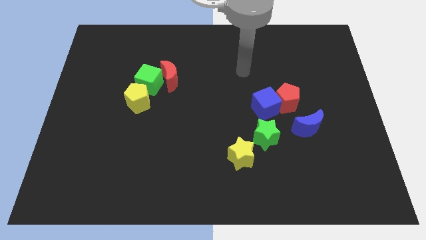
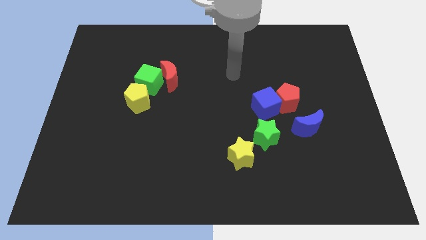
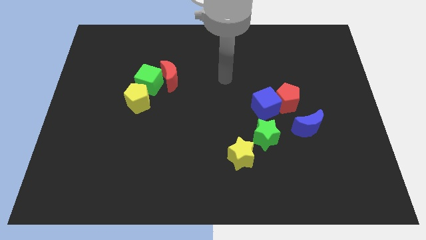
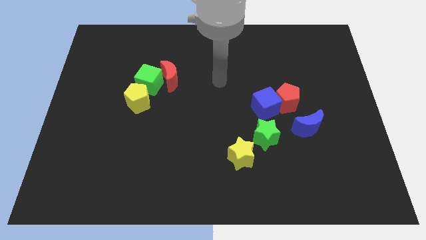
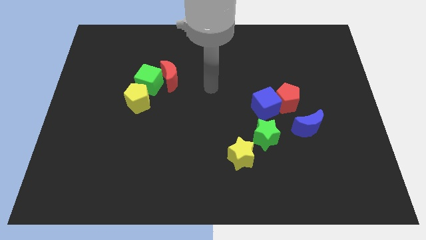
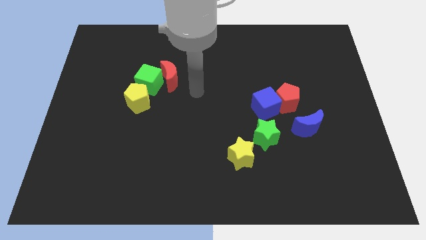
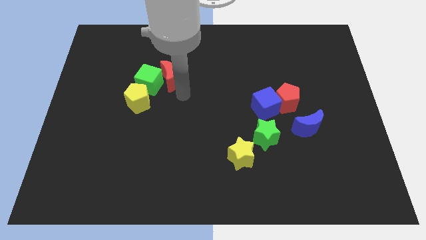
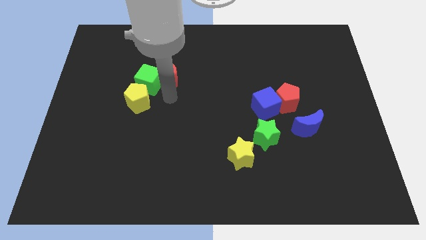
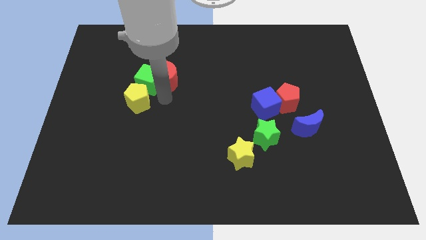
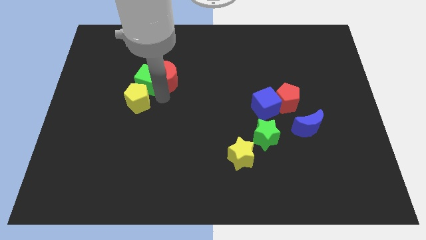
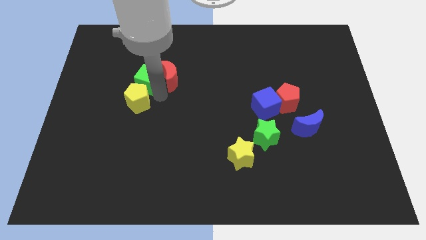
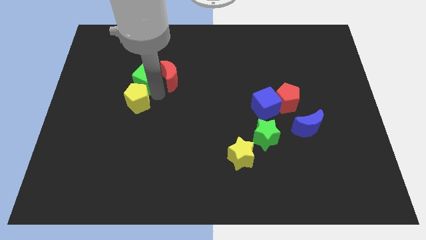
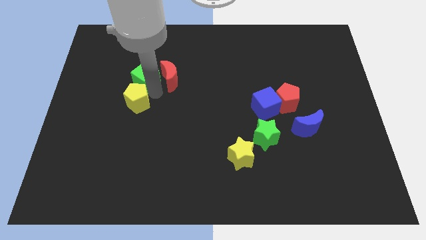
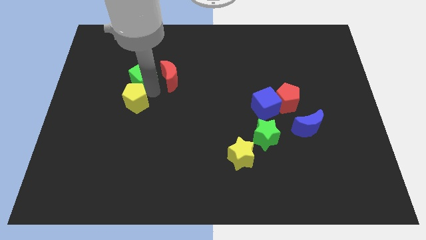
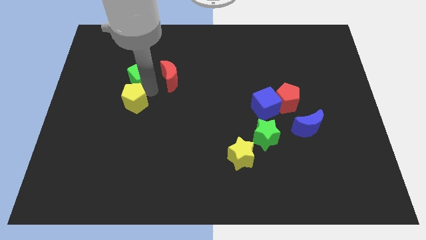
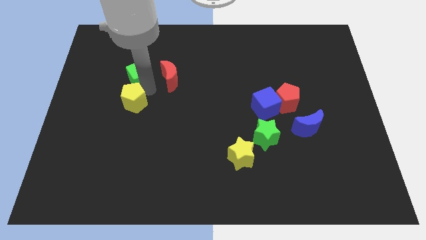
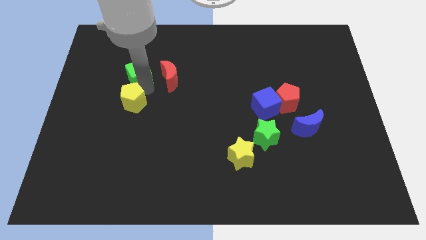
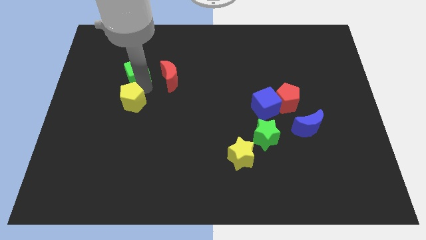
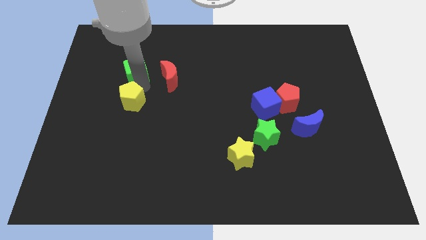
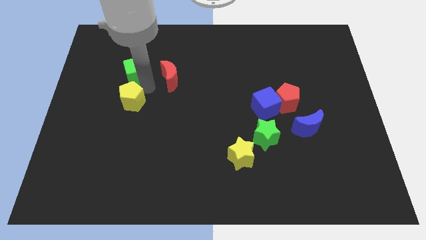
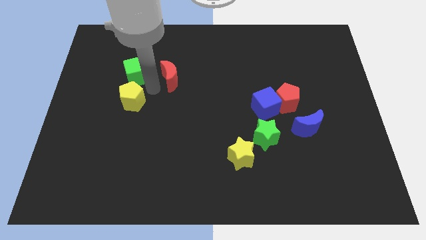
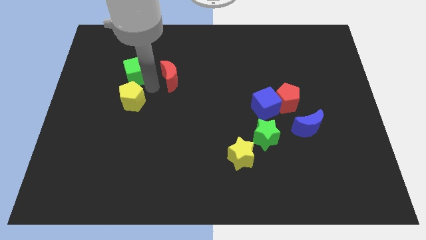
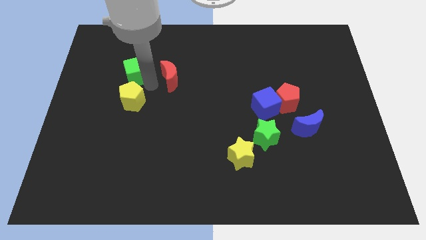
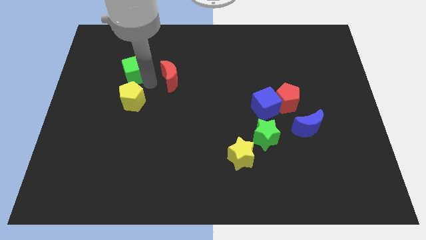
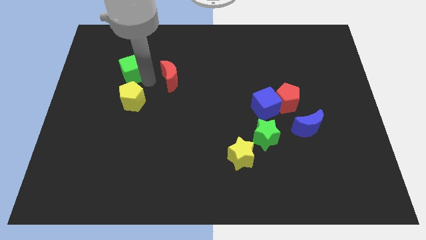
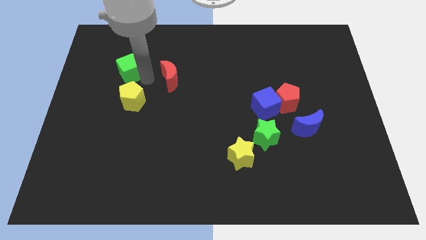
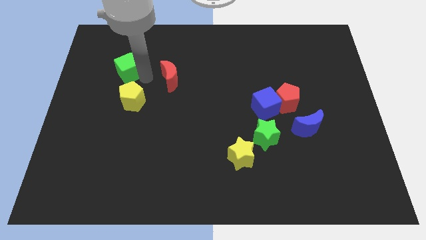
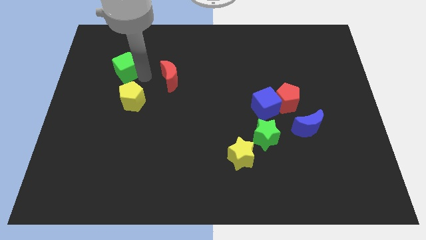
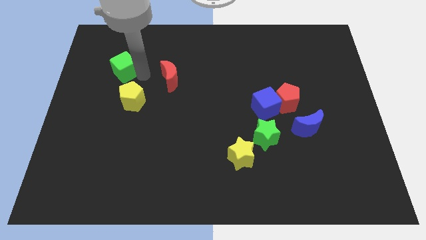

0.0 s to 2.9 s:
separate the green cube from the red moon and yellow pentagon

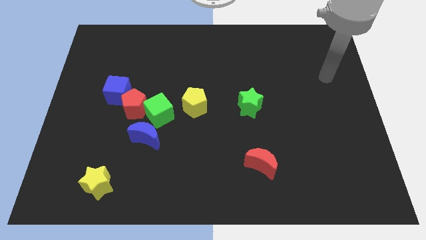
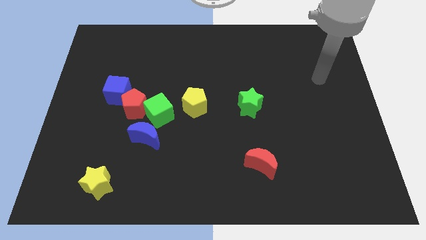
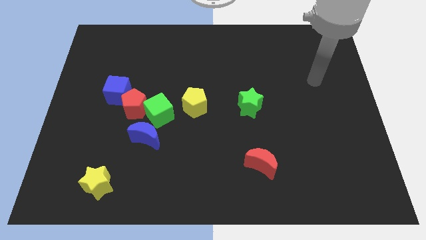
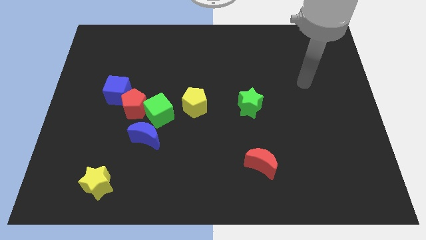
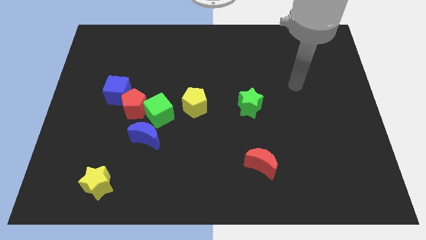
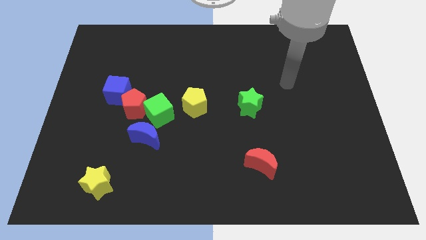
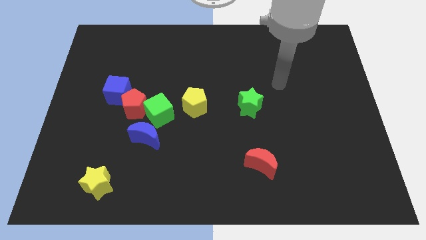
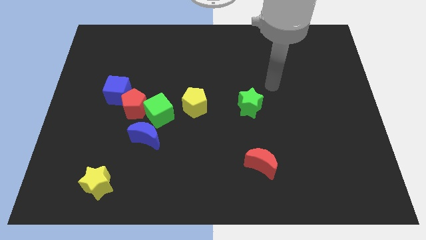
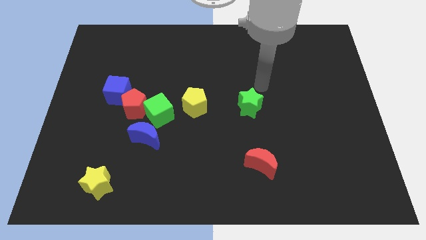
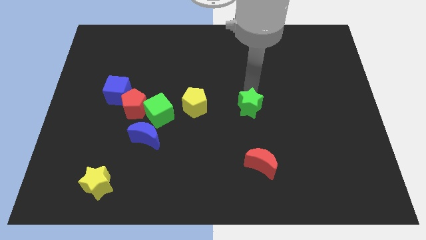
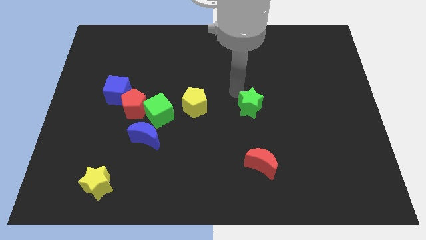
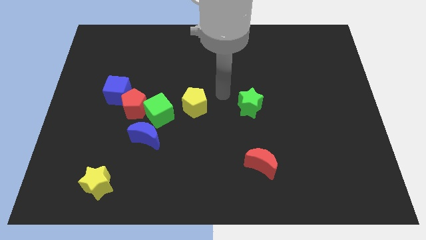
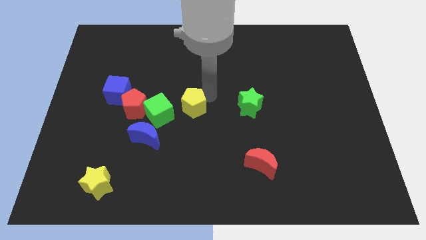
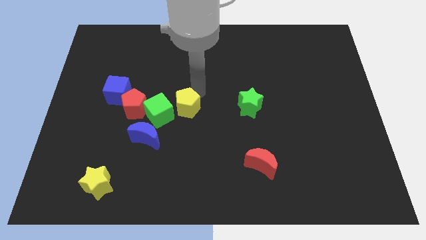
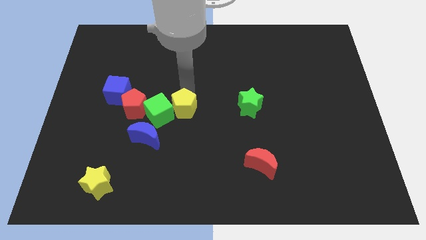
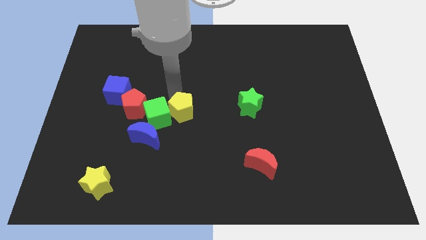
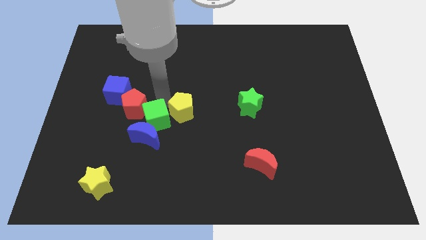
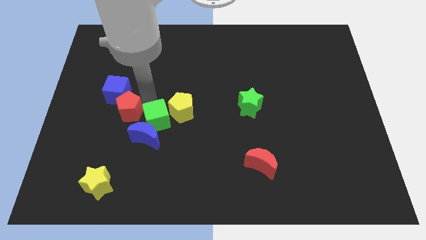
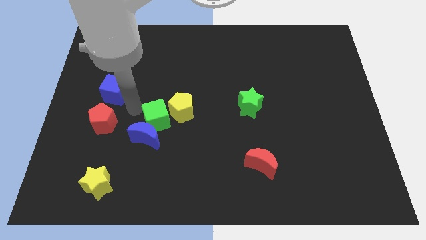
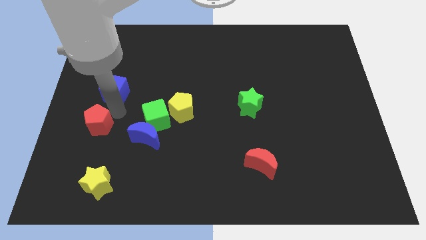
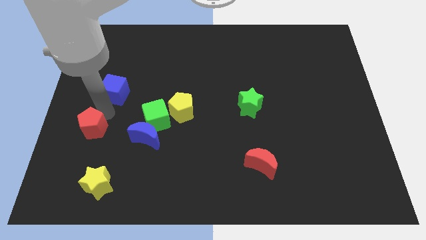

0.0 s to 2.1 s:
pull the blue cube apart from the red pentagon

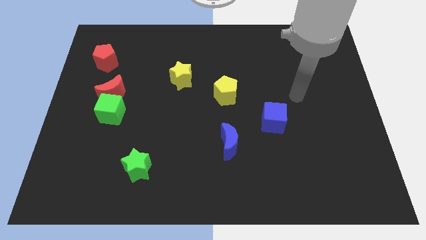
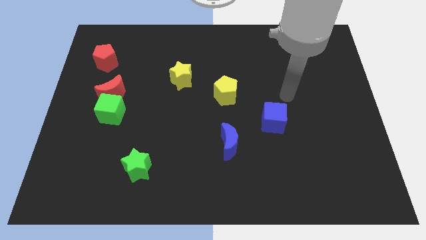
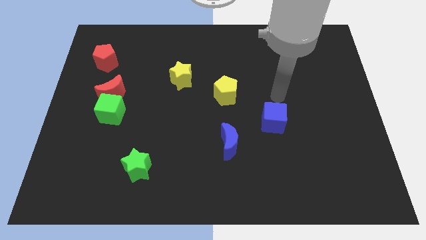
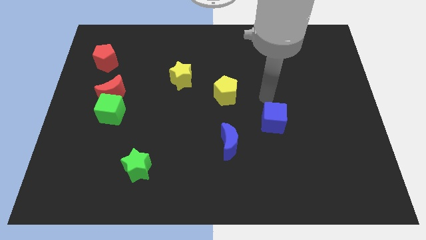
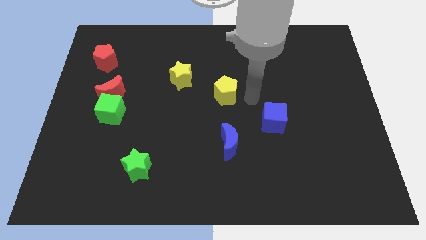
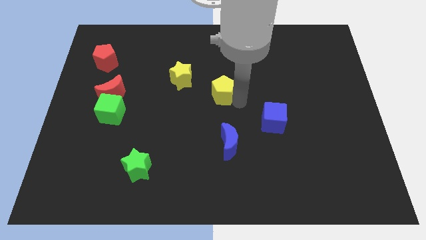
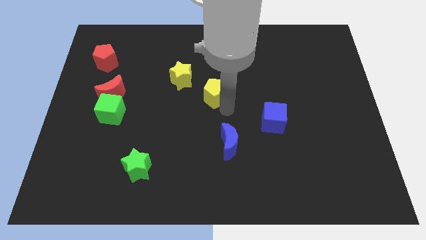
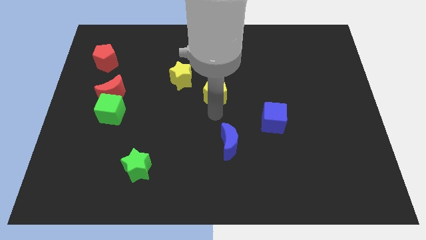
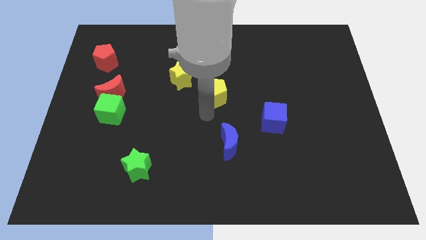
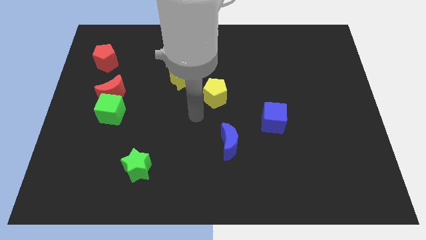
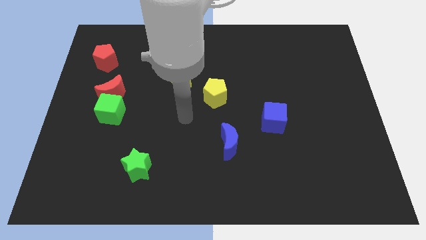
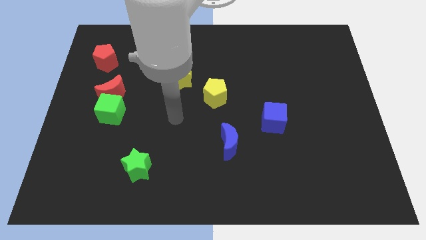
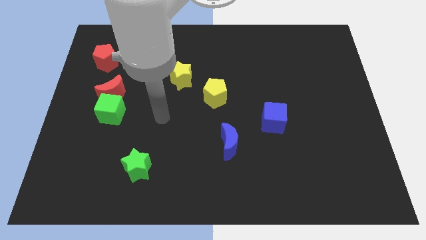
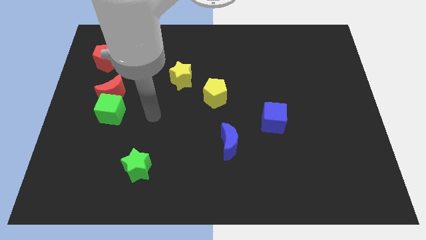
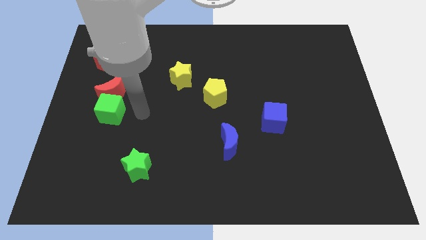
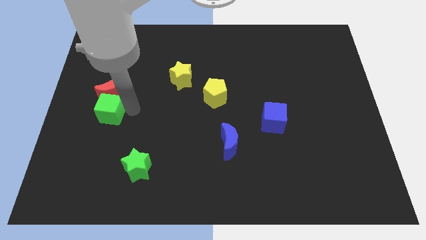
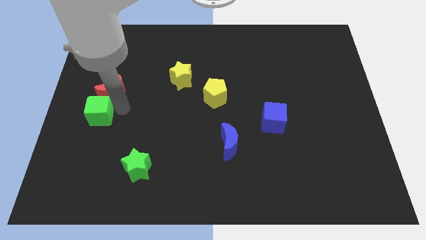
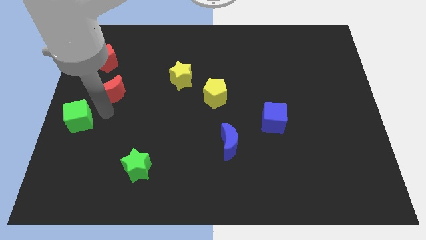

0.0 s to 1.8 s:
separate the red moon from the green cube

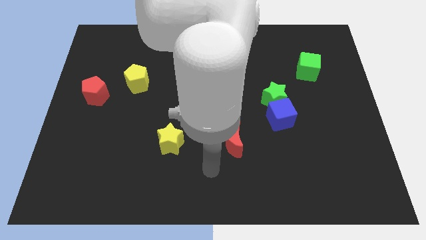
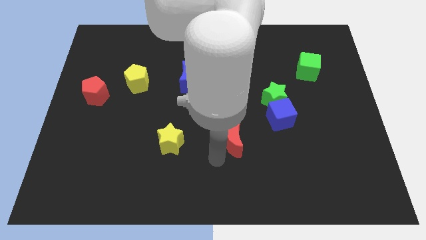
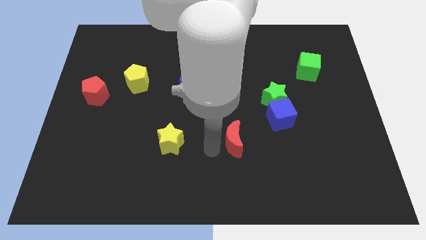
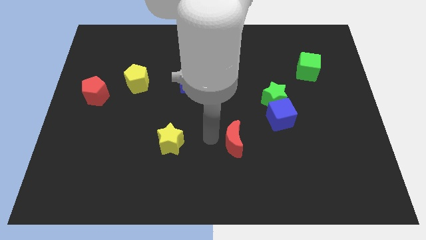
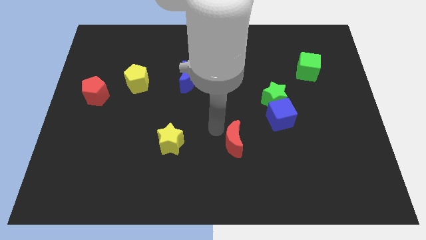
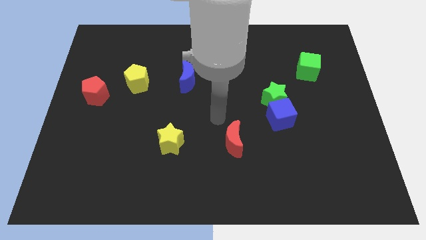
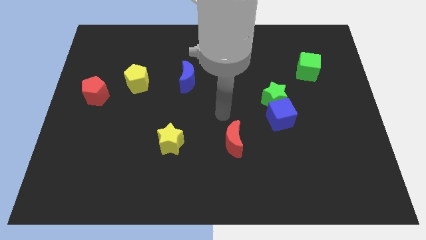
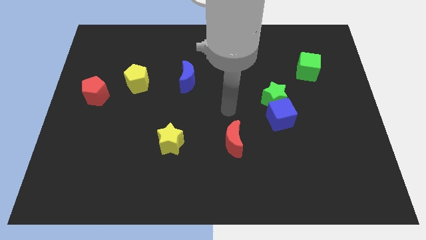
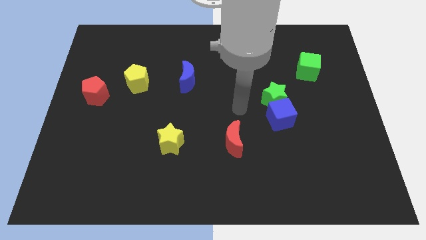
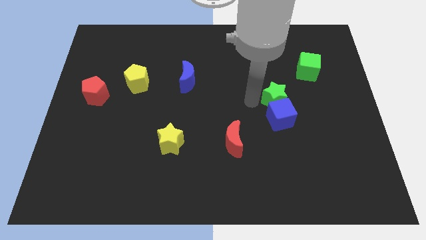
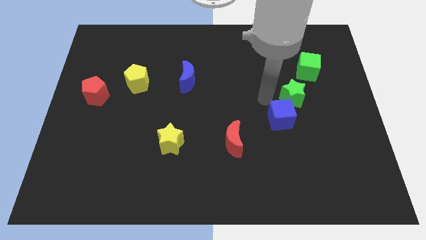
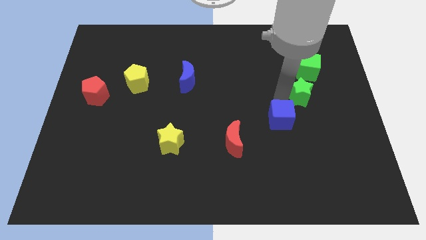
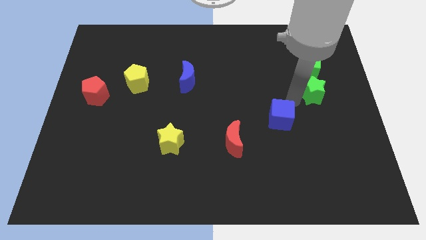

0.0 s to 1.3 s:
separate the blue cube from the green star

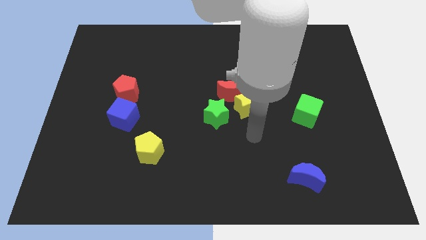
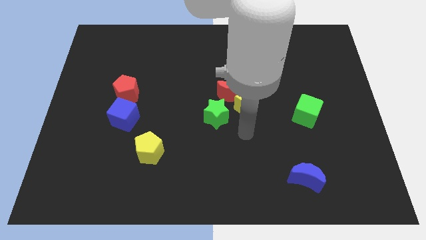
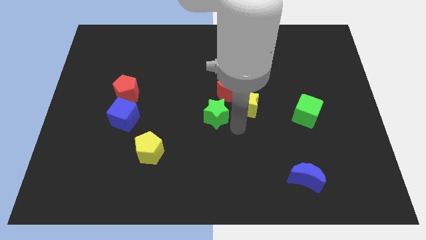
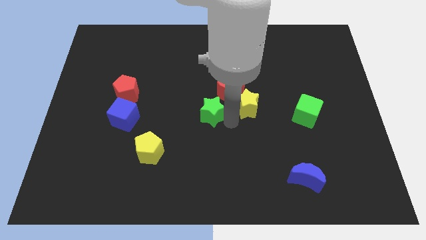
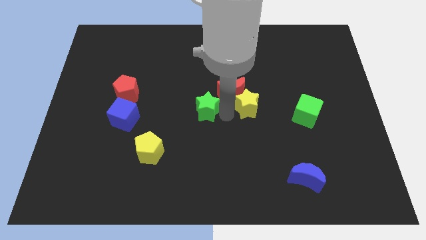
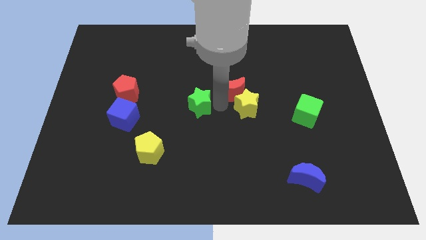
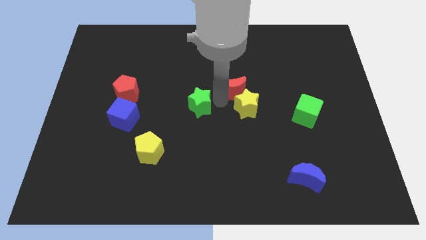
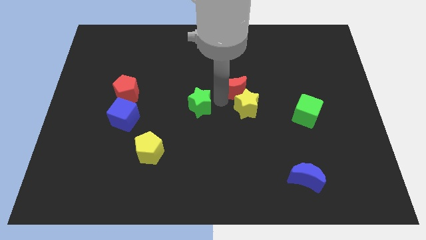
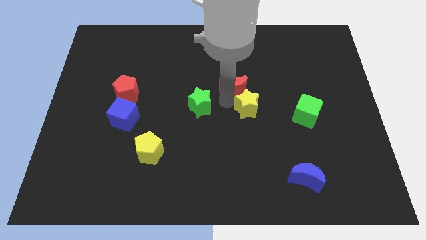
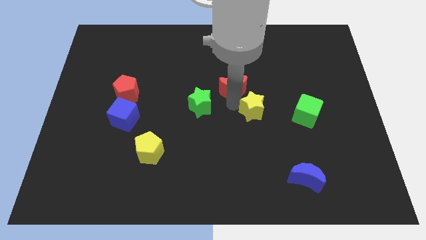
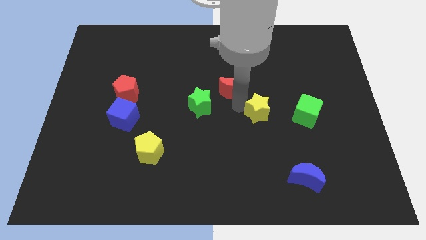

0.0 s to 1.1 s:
move the yellow star away from the red moon and green star
